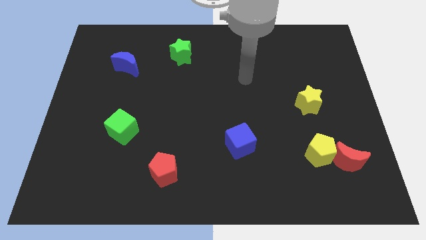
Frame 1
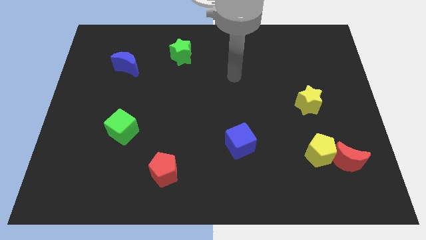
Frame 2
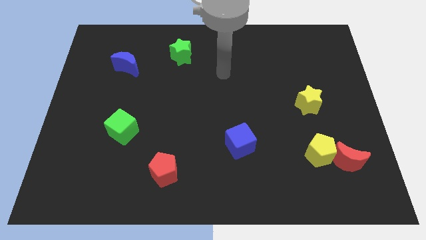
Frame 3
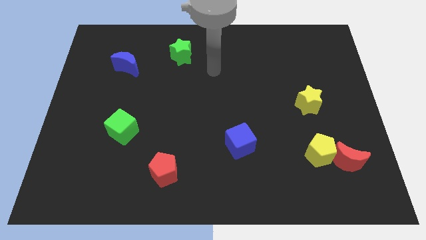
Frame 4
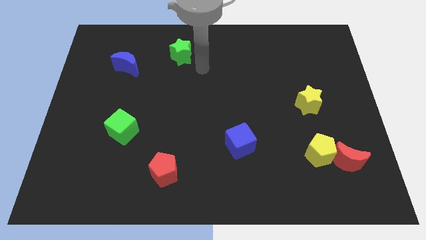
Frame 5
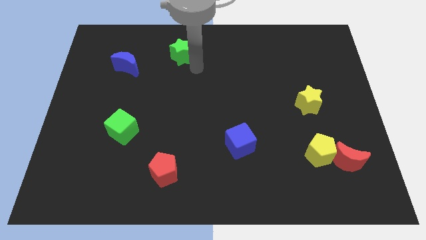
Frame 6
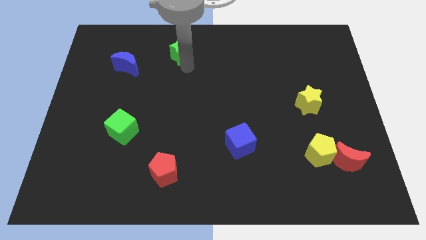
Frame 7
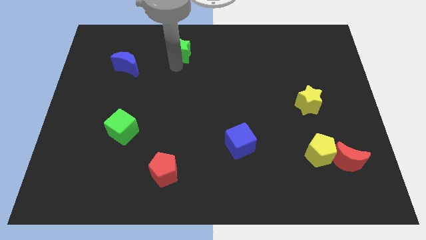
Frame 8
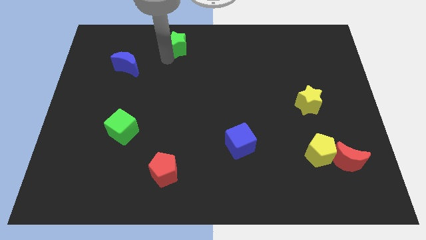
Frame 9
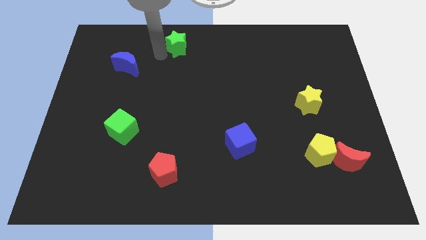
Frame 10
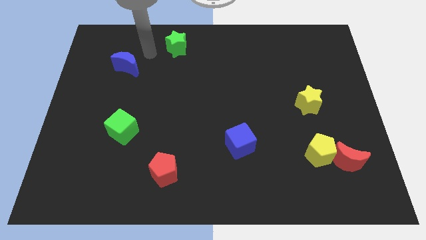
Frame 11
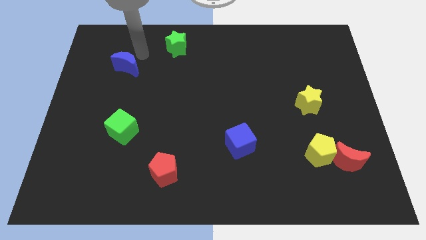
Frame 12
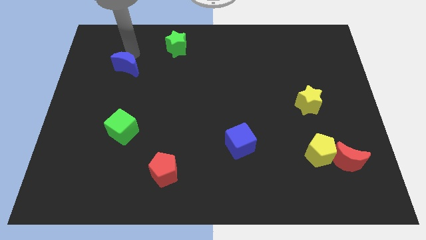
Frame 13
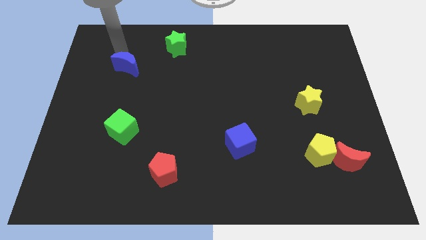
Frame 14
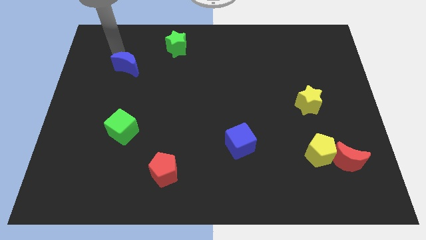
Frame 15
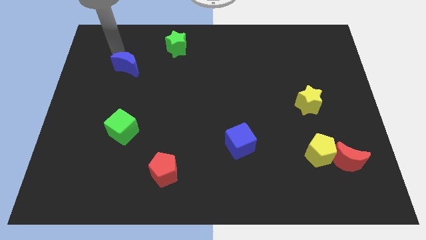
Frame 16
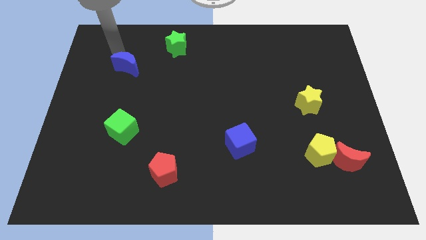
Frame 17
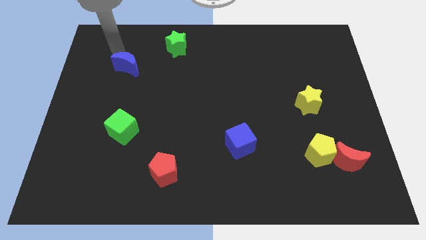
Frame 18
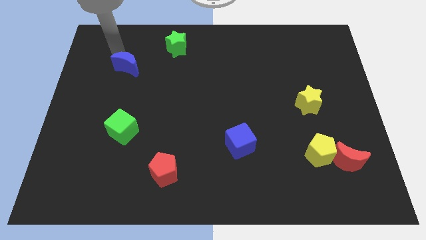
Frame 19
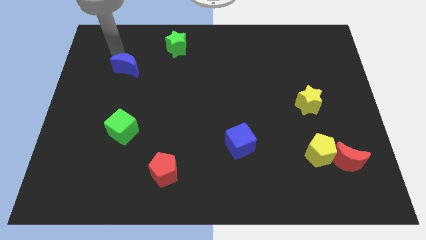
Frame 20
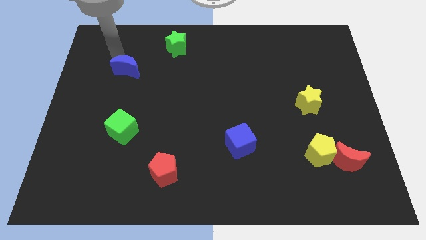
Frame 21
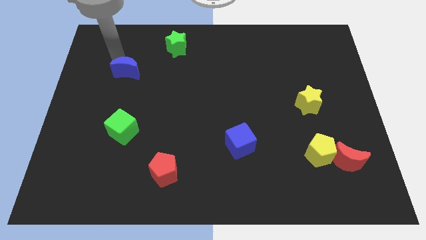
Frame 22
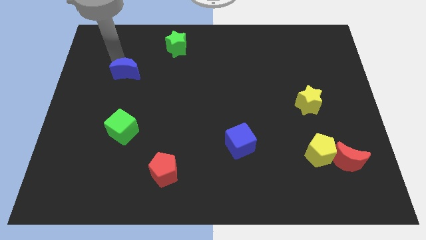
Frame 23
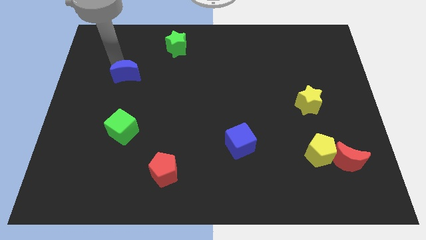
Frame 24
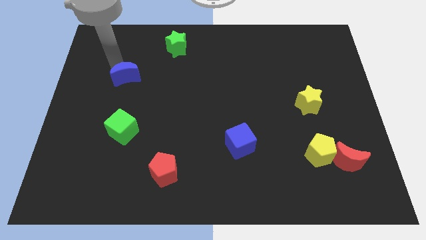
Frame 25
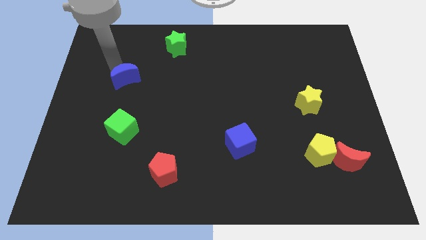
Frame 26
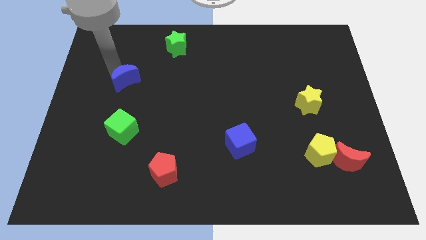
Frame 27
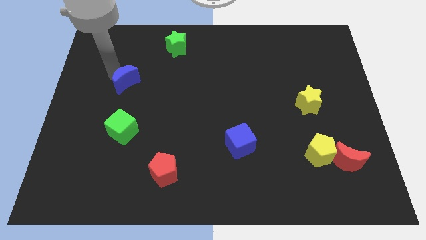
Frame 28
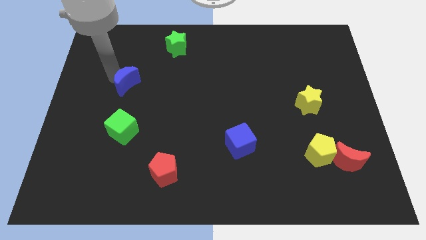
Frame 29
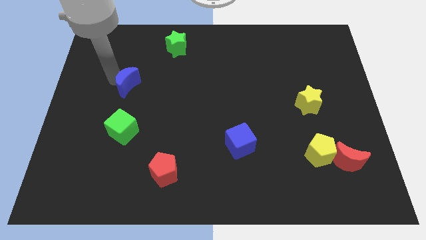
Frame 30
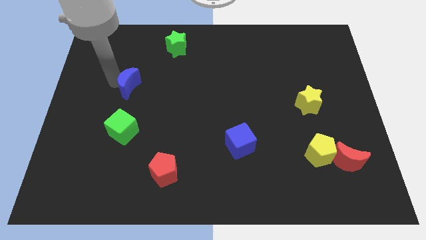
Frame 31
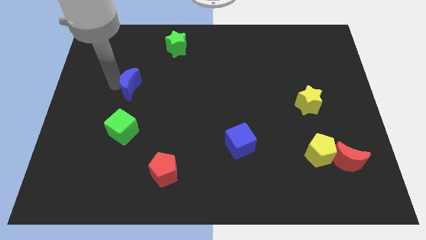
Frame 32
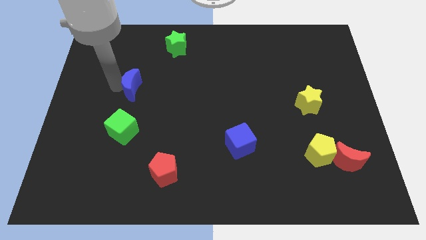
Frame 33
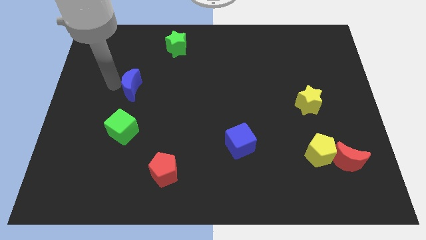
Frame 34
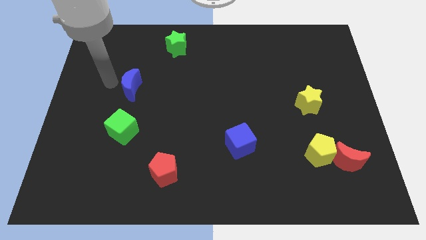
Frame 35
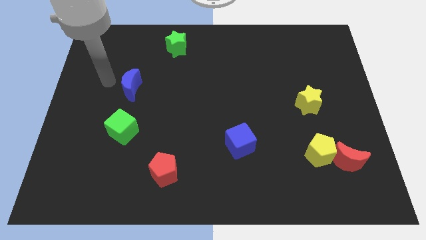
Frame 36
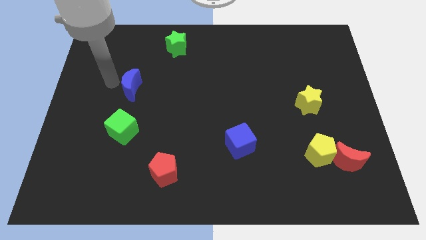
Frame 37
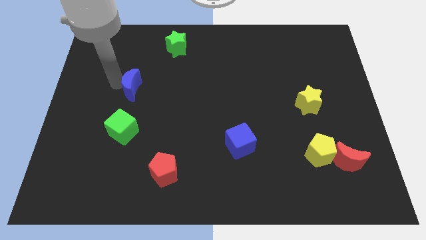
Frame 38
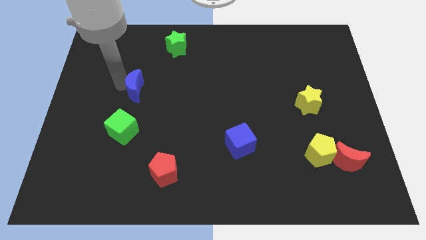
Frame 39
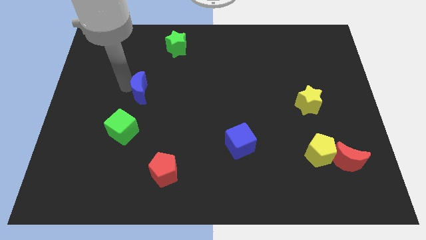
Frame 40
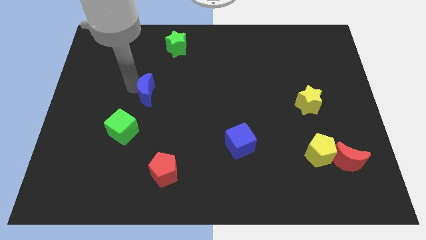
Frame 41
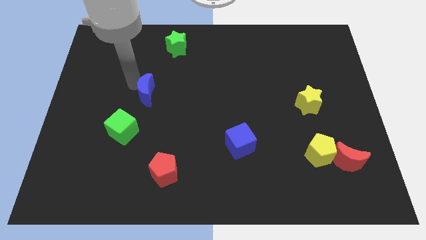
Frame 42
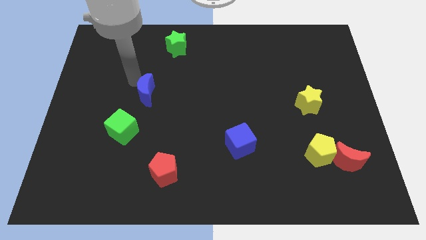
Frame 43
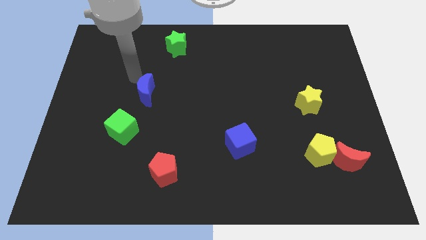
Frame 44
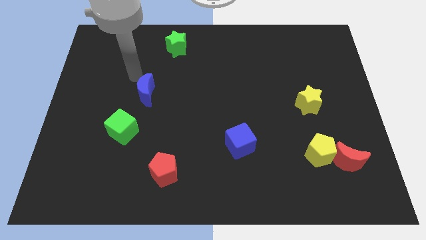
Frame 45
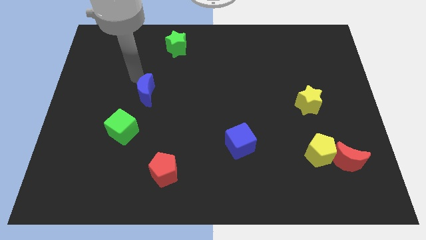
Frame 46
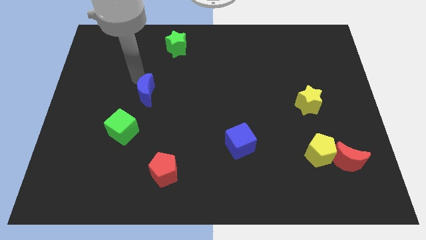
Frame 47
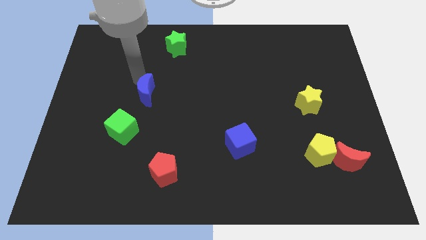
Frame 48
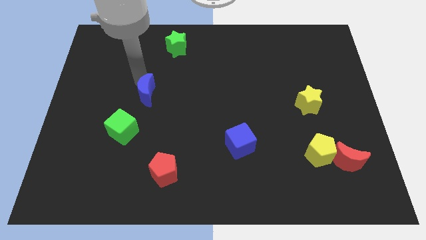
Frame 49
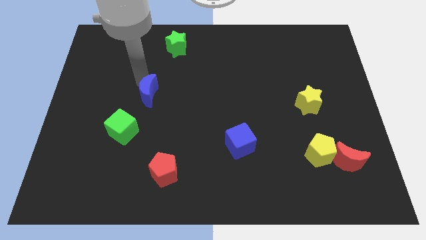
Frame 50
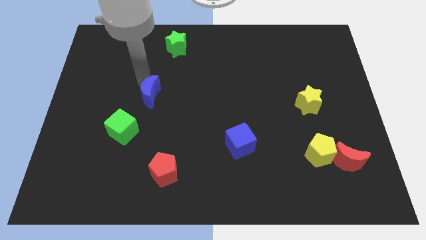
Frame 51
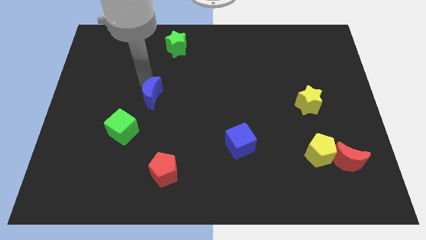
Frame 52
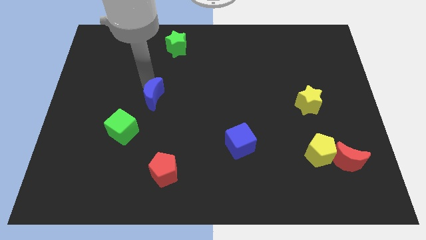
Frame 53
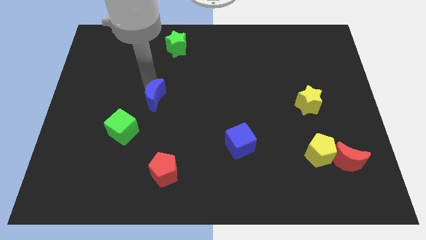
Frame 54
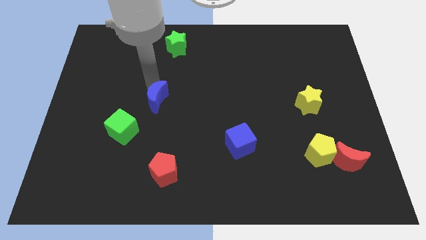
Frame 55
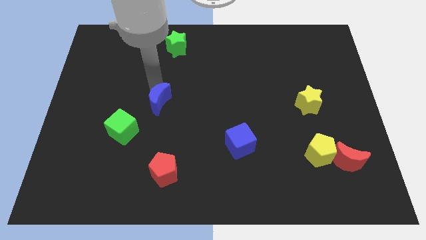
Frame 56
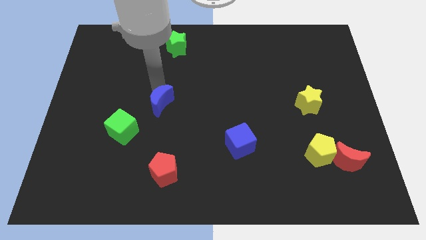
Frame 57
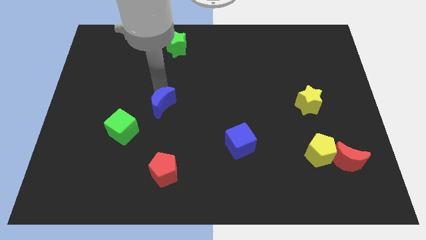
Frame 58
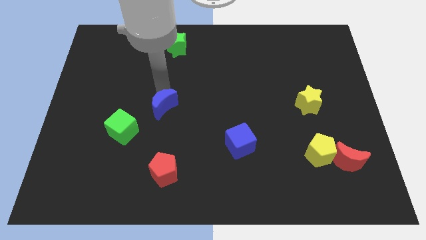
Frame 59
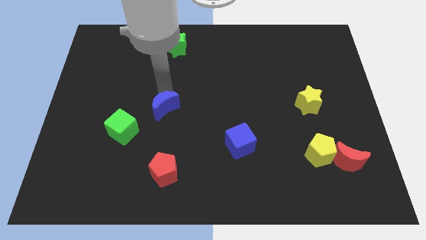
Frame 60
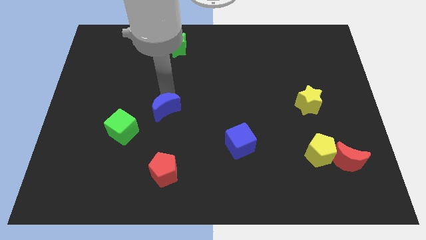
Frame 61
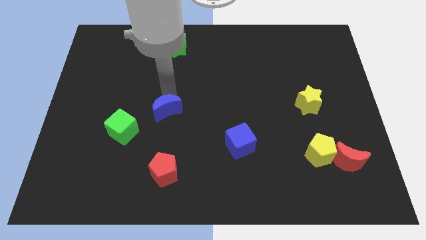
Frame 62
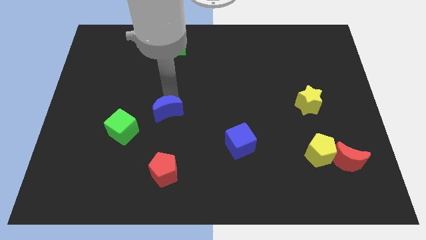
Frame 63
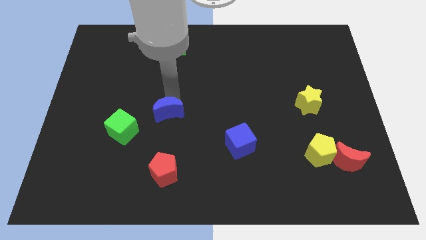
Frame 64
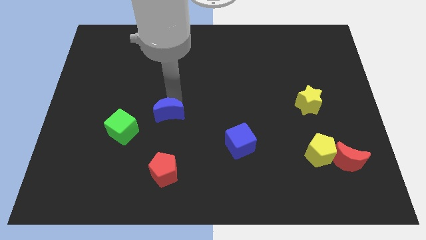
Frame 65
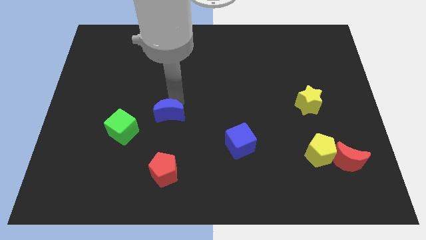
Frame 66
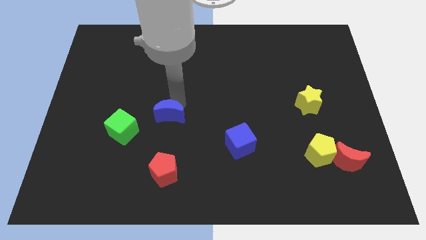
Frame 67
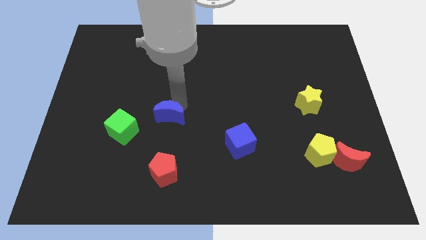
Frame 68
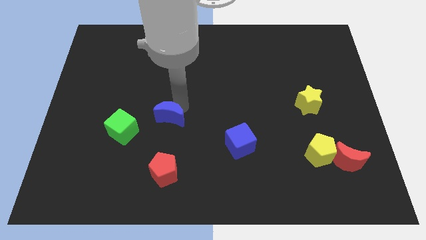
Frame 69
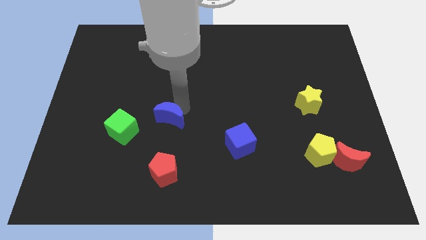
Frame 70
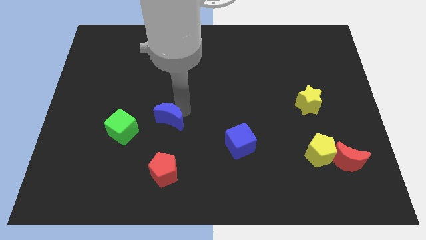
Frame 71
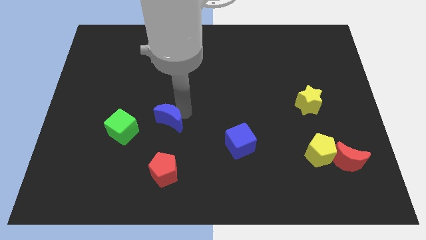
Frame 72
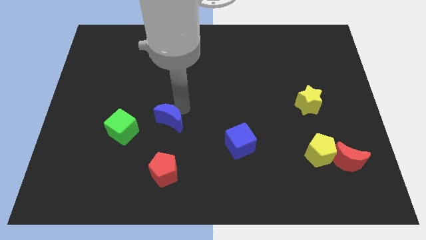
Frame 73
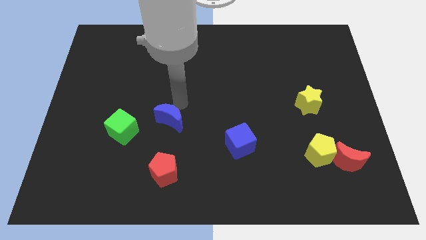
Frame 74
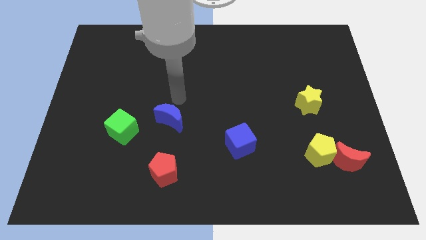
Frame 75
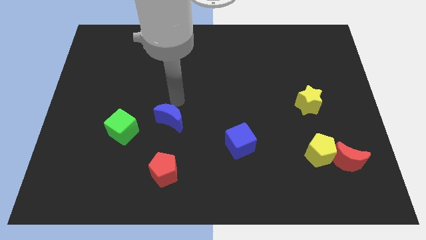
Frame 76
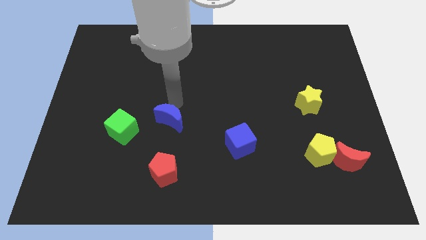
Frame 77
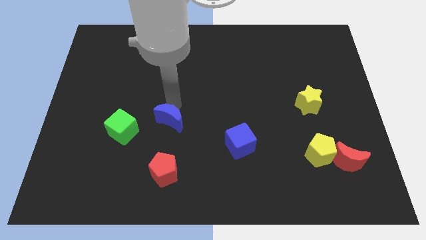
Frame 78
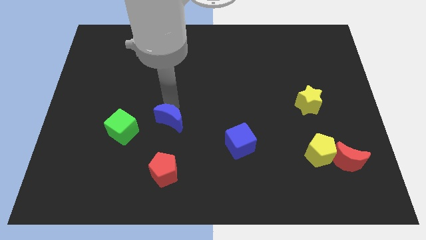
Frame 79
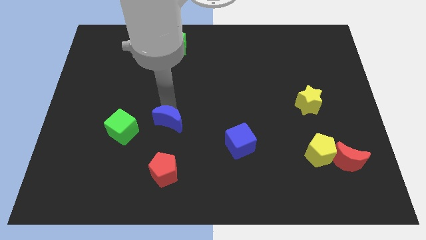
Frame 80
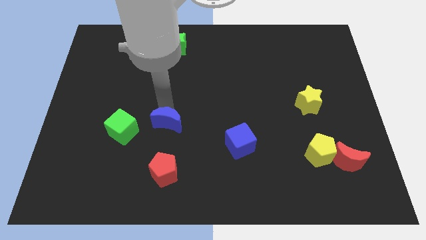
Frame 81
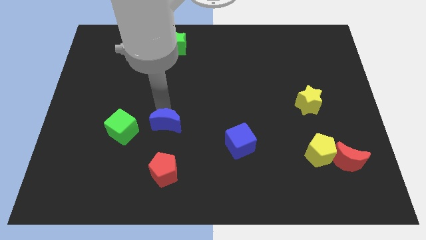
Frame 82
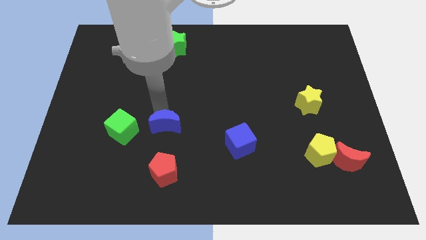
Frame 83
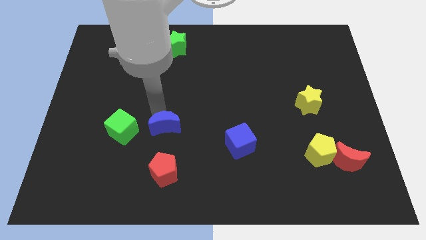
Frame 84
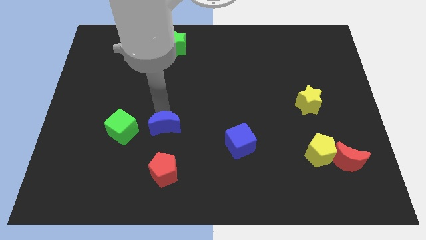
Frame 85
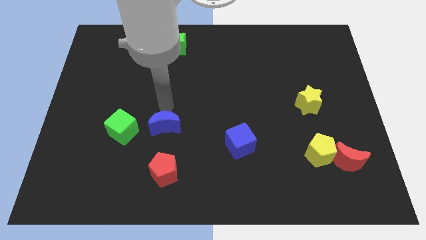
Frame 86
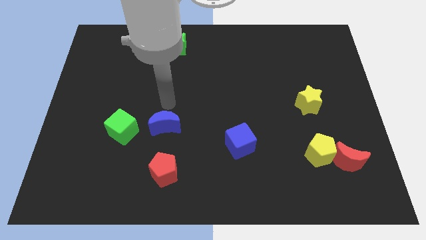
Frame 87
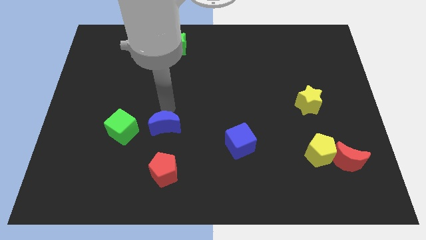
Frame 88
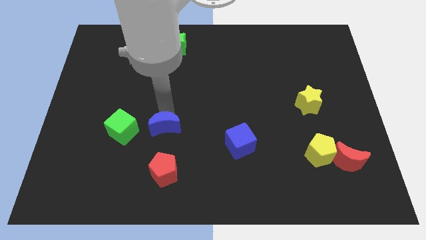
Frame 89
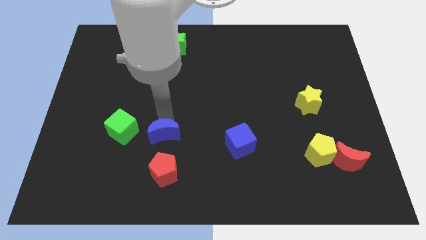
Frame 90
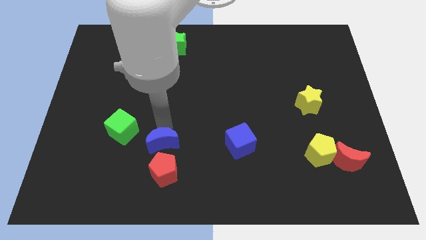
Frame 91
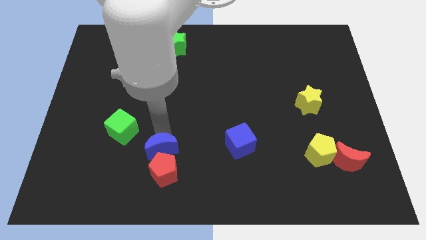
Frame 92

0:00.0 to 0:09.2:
put the blue moon towards the red pentagon
